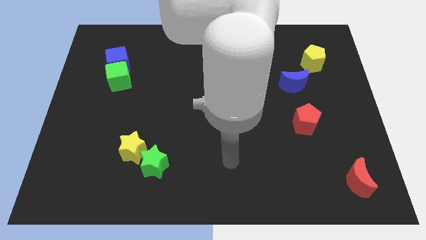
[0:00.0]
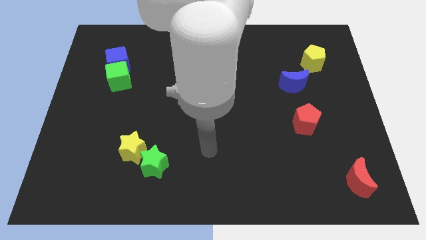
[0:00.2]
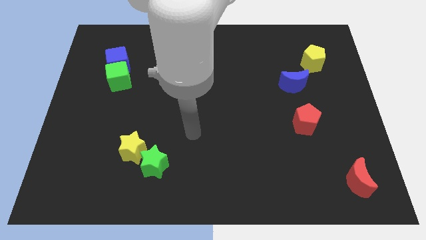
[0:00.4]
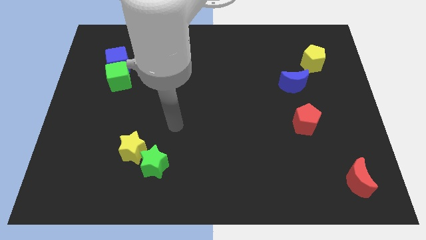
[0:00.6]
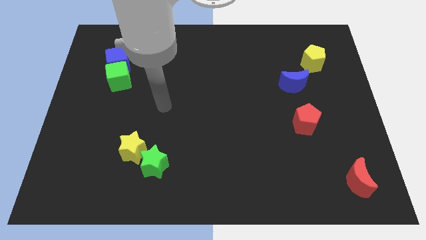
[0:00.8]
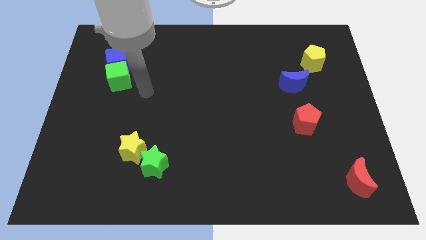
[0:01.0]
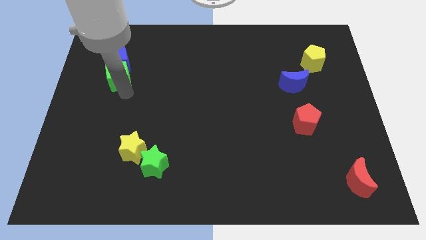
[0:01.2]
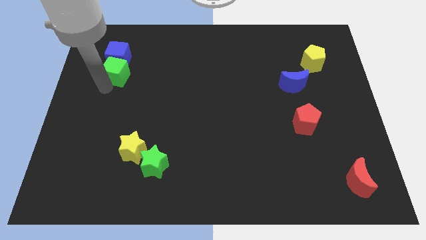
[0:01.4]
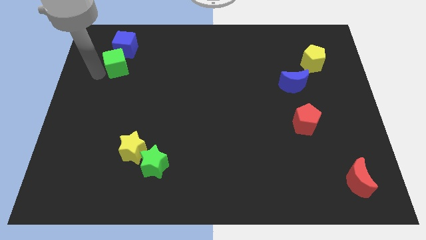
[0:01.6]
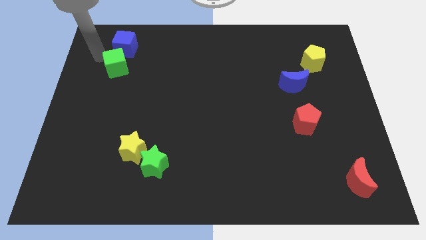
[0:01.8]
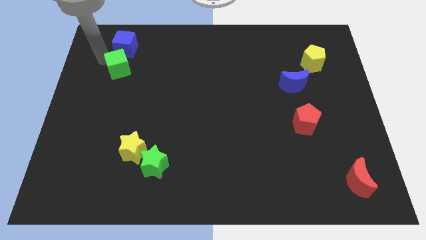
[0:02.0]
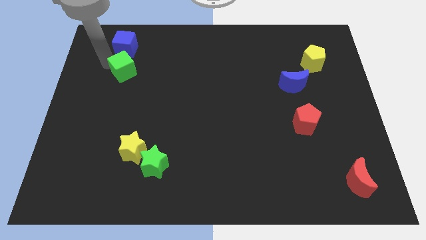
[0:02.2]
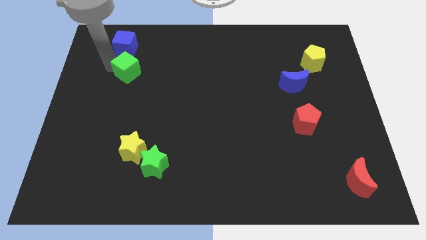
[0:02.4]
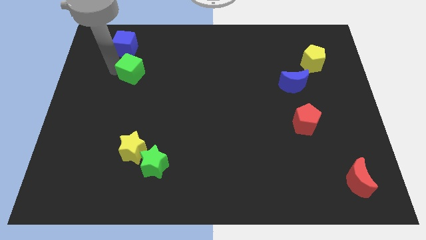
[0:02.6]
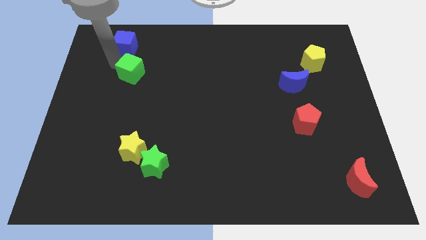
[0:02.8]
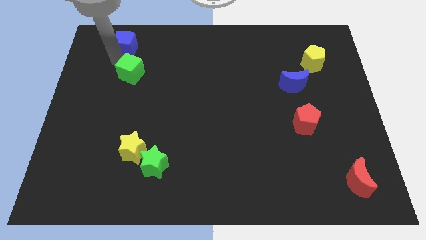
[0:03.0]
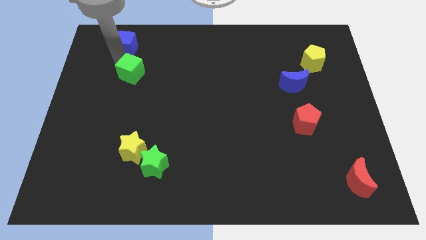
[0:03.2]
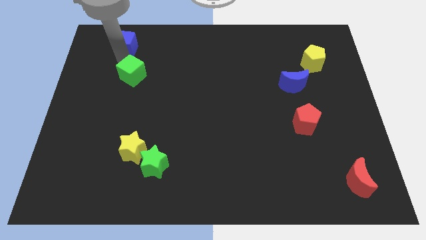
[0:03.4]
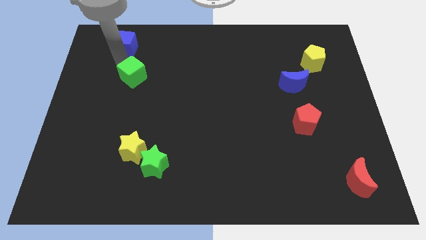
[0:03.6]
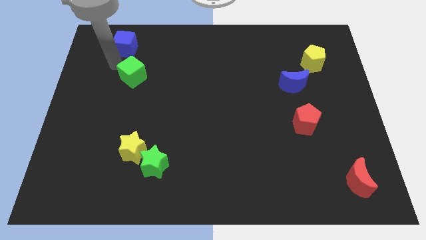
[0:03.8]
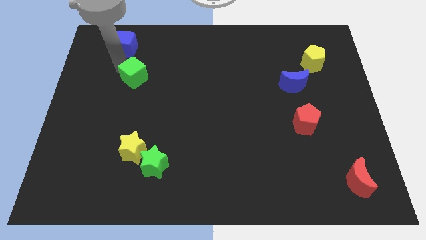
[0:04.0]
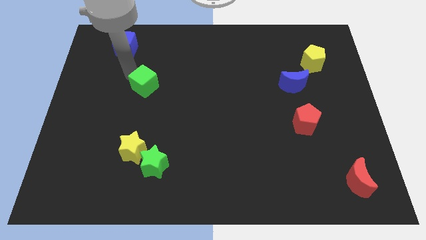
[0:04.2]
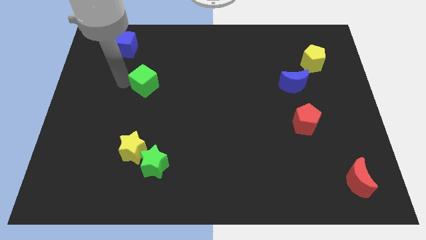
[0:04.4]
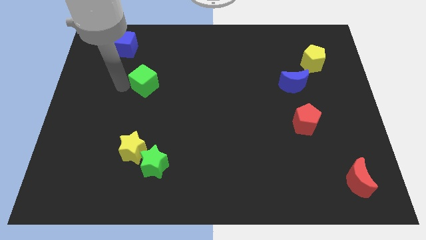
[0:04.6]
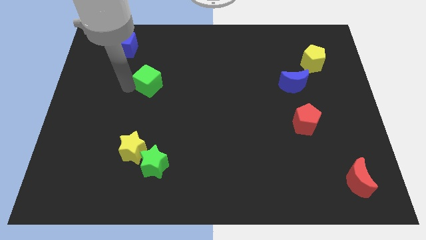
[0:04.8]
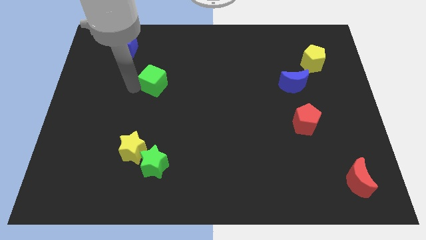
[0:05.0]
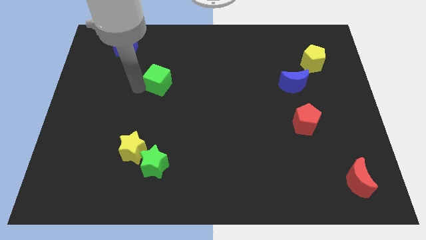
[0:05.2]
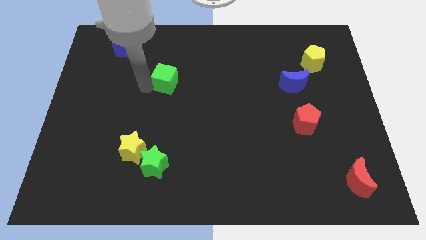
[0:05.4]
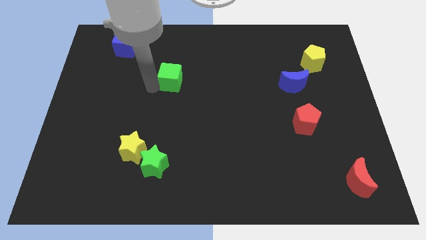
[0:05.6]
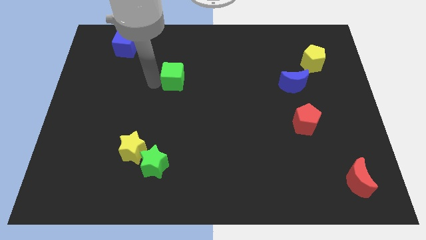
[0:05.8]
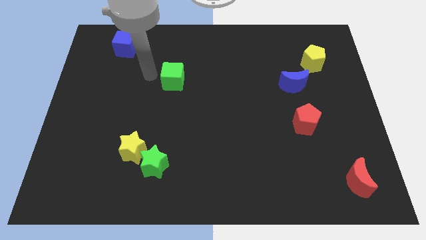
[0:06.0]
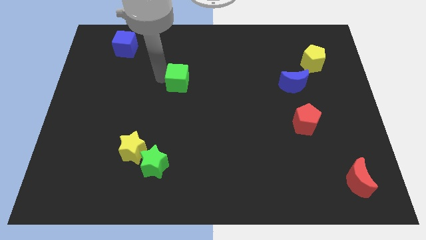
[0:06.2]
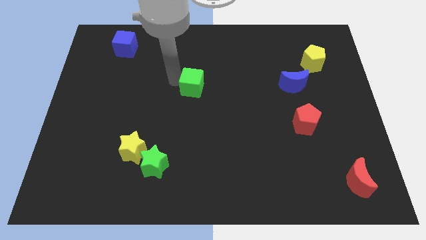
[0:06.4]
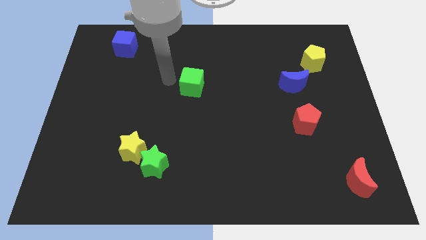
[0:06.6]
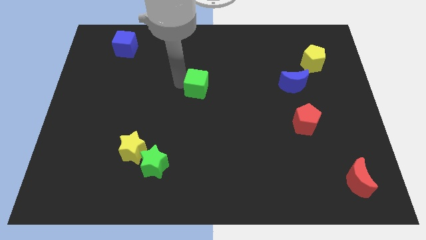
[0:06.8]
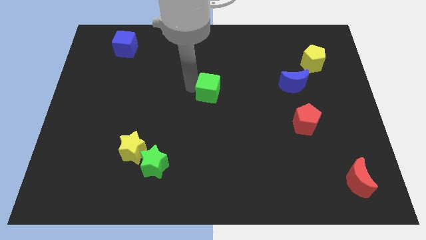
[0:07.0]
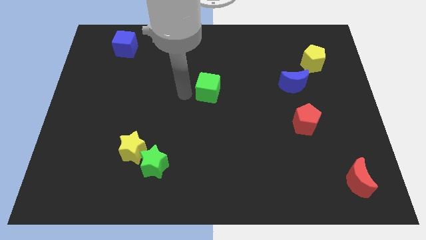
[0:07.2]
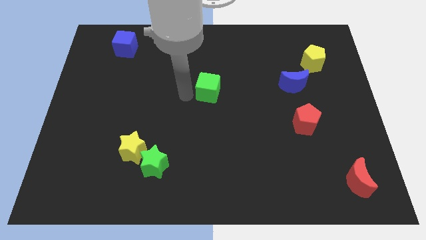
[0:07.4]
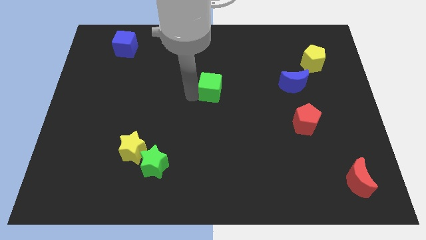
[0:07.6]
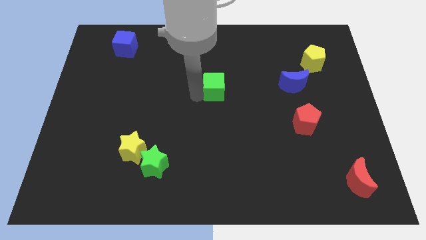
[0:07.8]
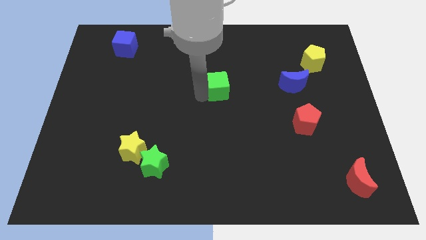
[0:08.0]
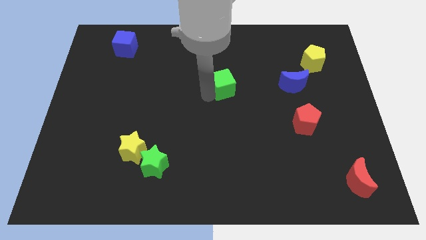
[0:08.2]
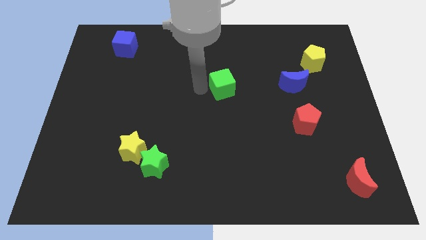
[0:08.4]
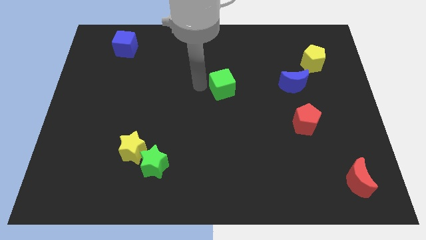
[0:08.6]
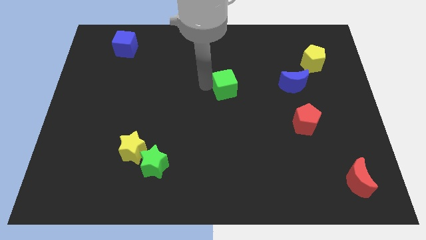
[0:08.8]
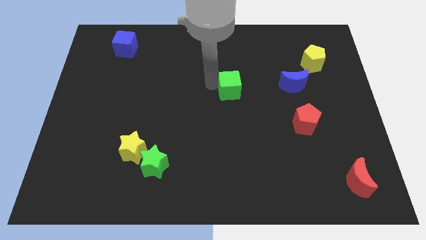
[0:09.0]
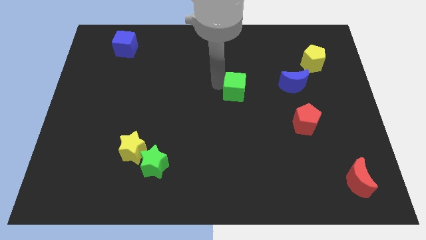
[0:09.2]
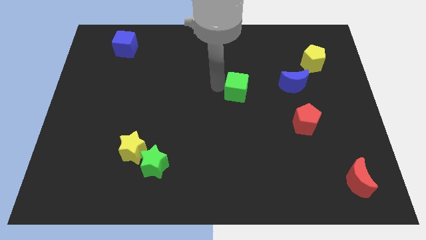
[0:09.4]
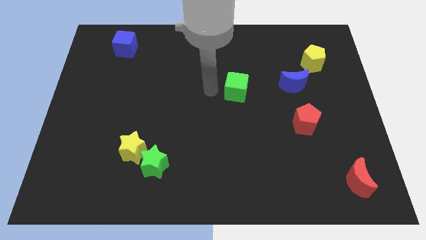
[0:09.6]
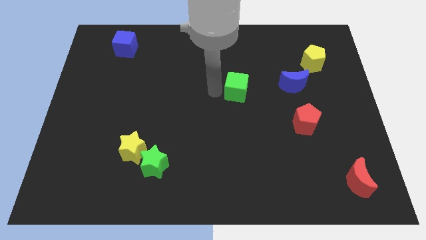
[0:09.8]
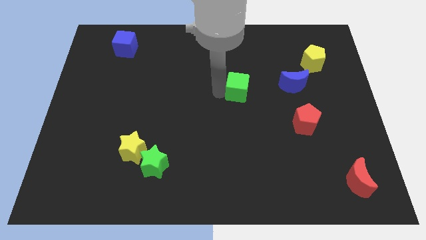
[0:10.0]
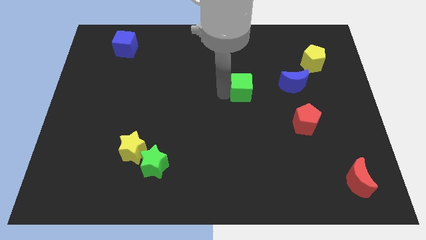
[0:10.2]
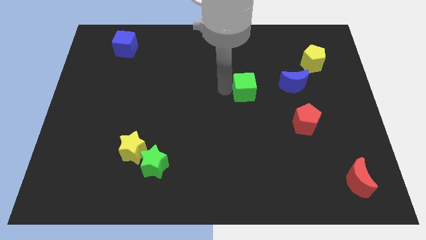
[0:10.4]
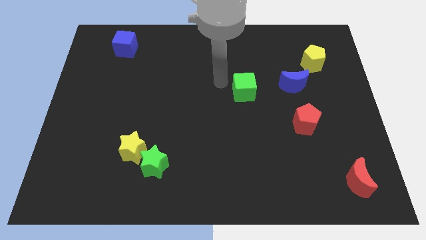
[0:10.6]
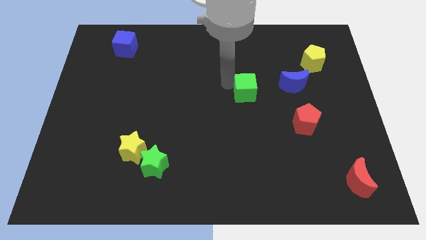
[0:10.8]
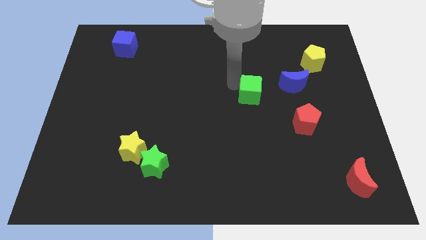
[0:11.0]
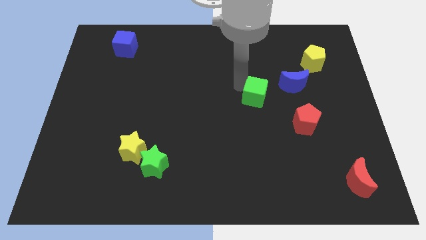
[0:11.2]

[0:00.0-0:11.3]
put the green cube to the bottom left side of the blue moon

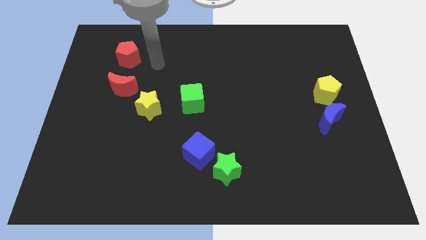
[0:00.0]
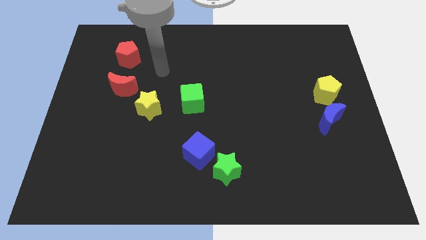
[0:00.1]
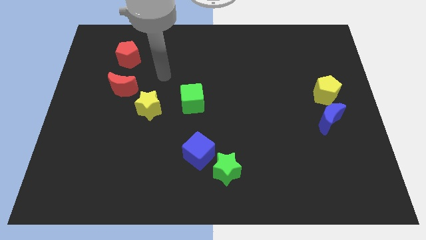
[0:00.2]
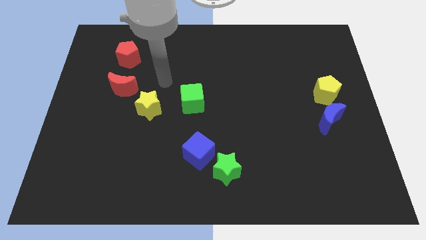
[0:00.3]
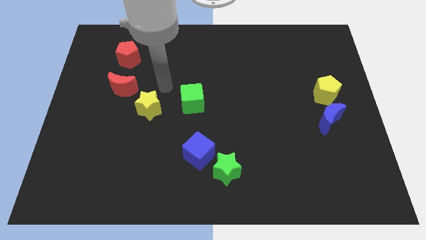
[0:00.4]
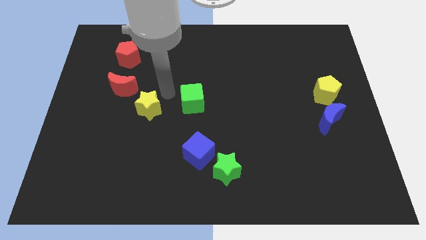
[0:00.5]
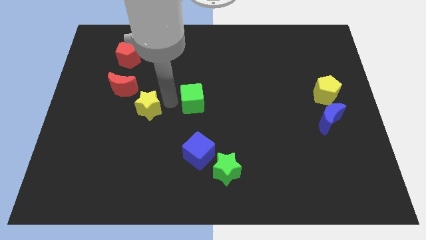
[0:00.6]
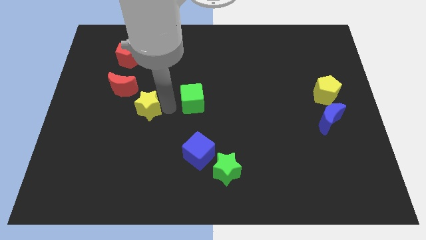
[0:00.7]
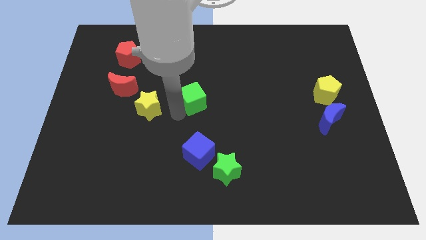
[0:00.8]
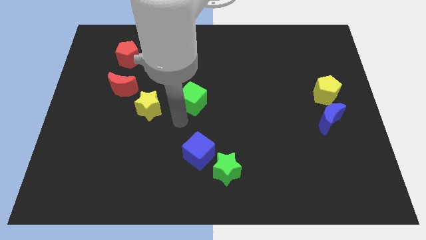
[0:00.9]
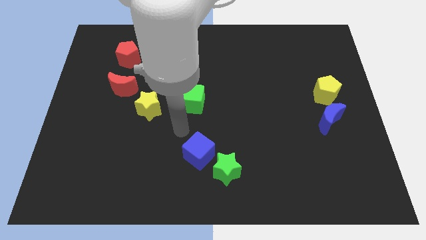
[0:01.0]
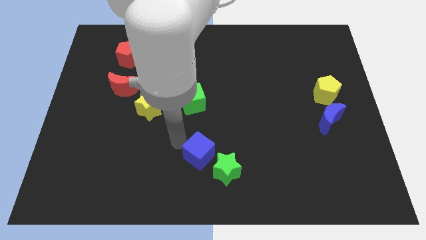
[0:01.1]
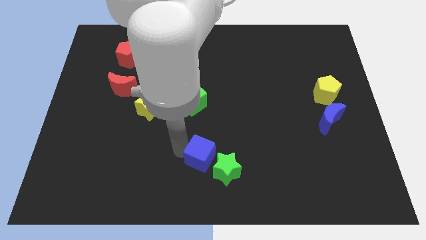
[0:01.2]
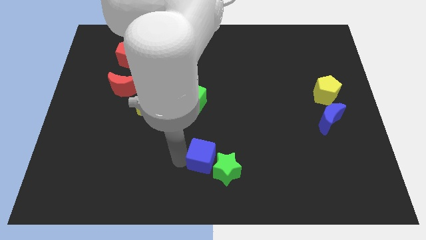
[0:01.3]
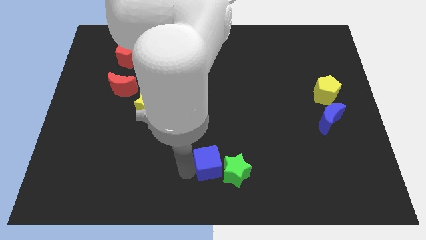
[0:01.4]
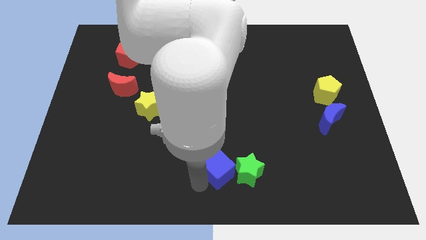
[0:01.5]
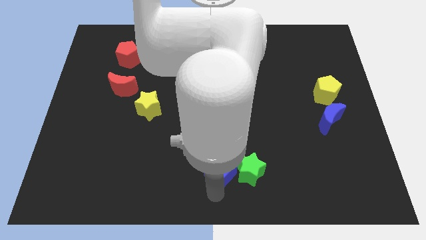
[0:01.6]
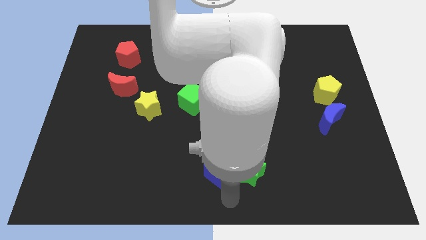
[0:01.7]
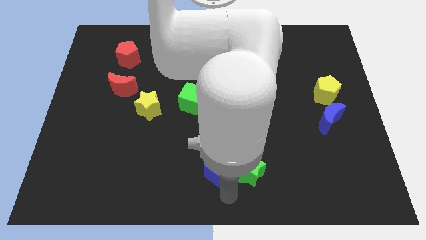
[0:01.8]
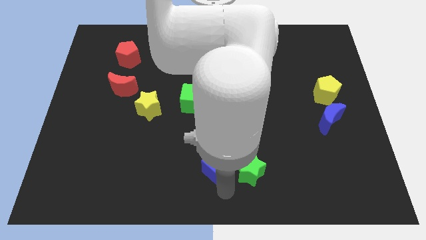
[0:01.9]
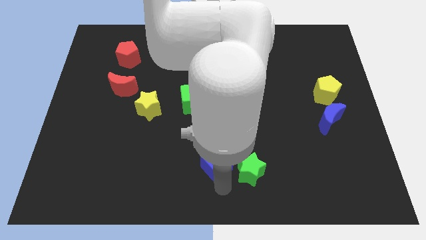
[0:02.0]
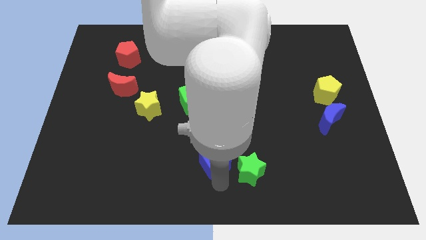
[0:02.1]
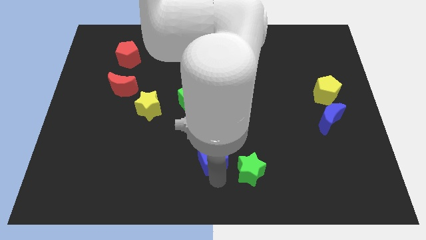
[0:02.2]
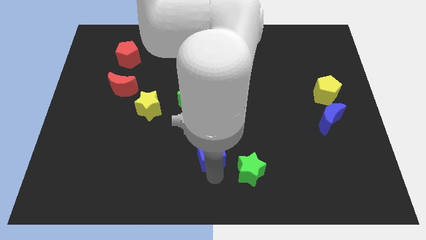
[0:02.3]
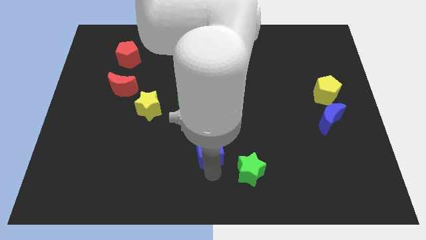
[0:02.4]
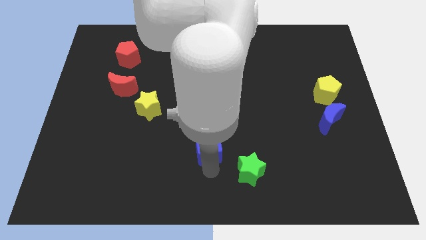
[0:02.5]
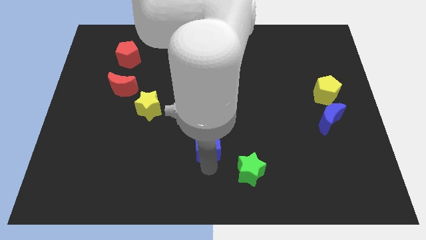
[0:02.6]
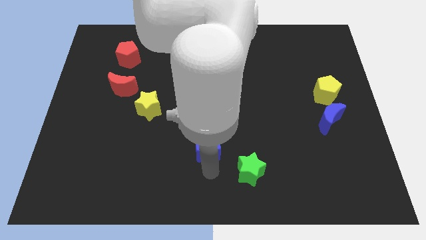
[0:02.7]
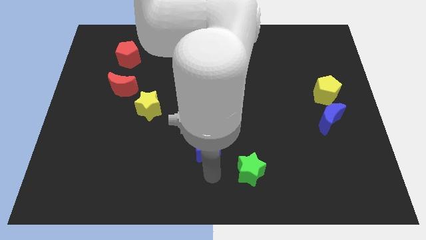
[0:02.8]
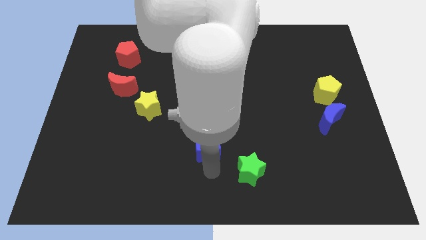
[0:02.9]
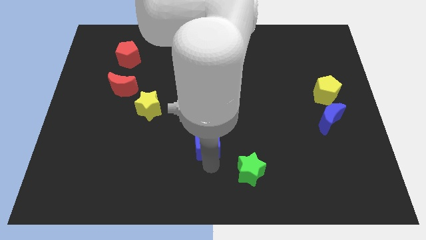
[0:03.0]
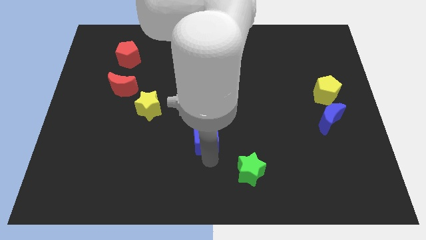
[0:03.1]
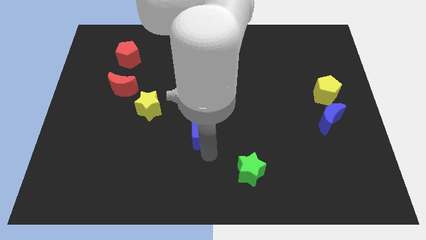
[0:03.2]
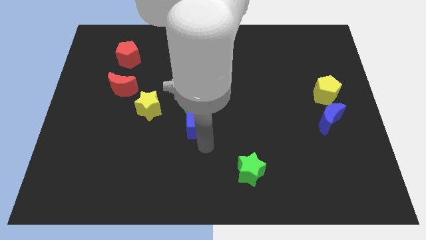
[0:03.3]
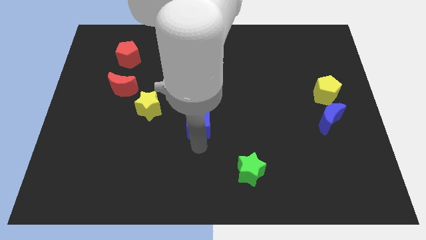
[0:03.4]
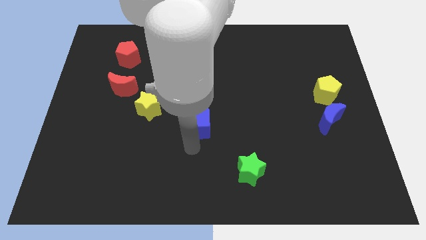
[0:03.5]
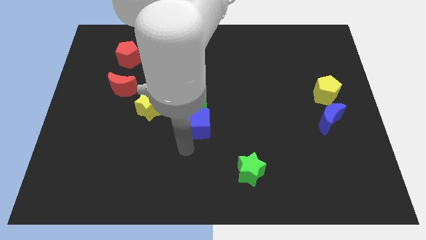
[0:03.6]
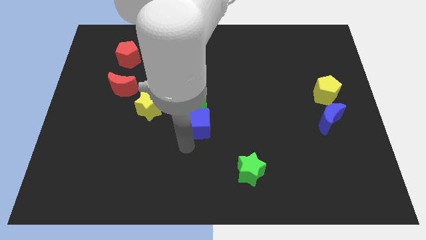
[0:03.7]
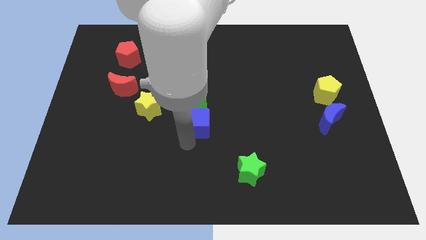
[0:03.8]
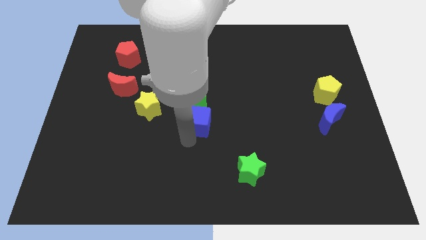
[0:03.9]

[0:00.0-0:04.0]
move the blue cube right of the yellow star
